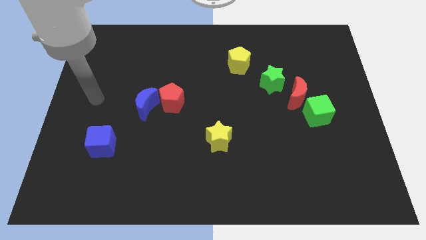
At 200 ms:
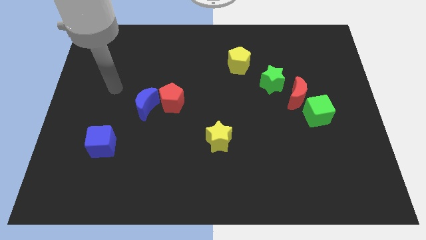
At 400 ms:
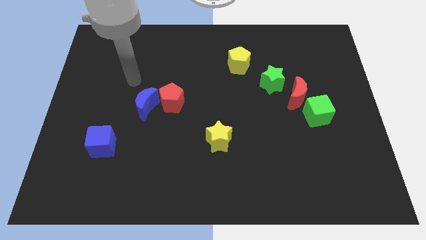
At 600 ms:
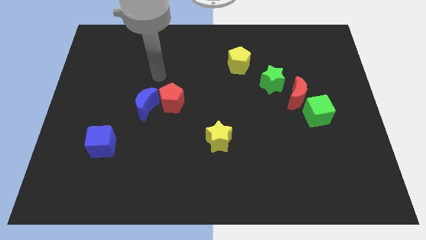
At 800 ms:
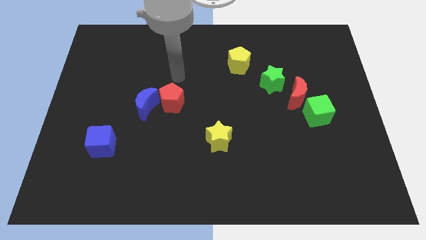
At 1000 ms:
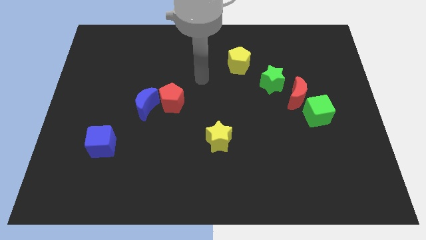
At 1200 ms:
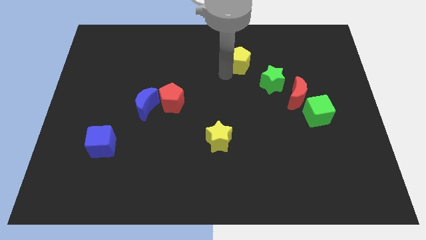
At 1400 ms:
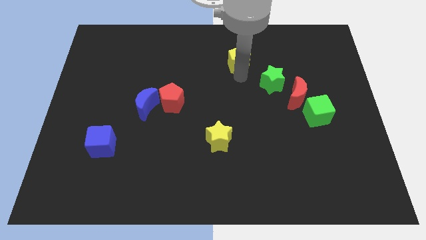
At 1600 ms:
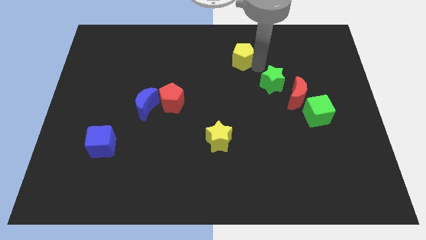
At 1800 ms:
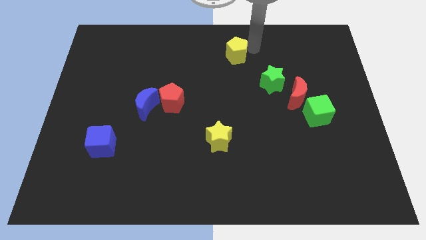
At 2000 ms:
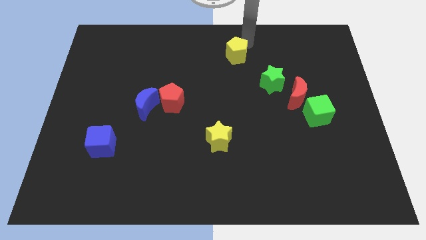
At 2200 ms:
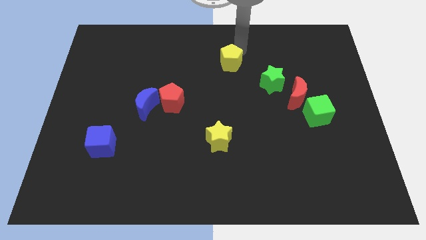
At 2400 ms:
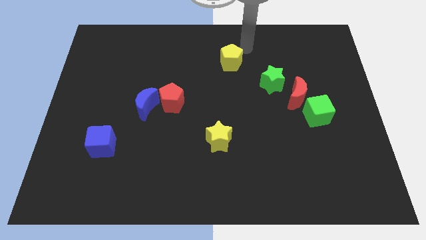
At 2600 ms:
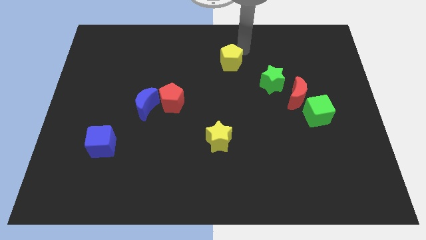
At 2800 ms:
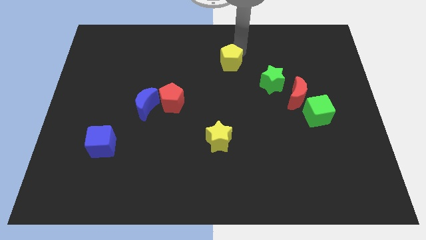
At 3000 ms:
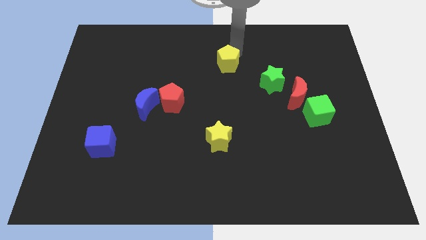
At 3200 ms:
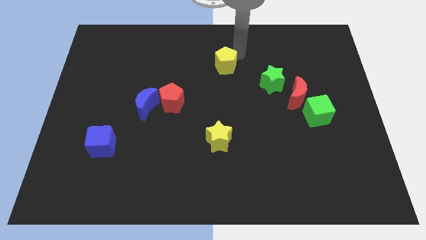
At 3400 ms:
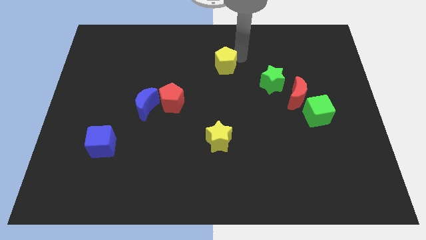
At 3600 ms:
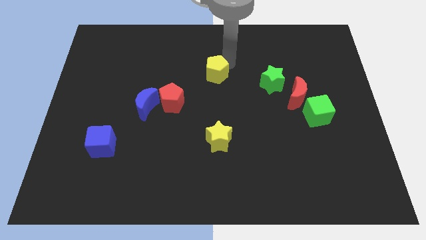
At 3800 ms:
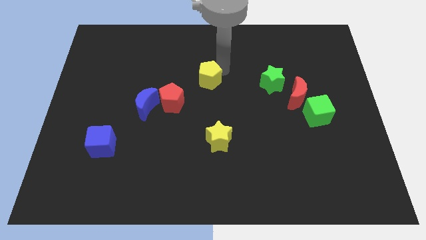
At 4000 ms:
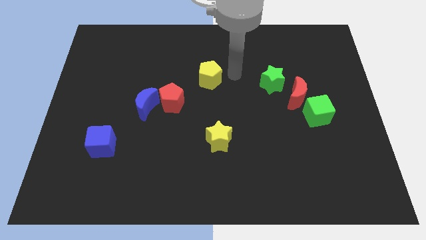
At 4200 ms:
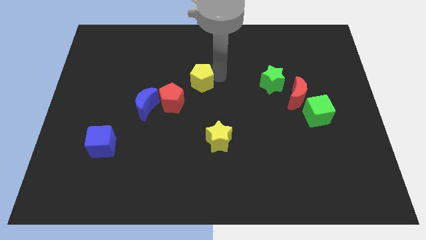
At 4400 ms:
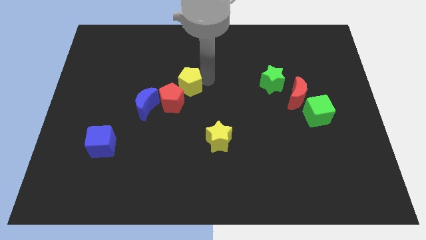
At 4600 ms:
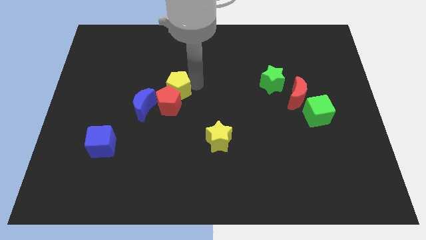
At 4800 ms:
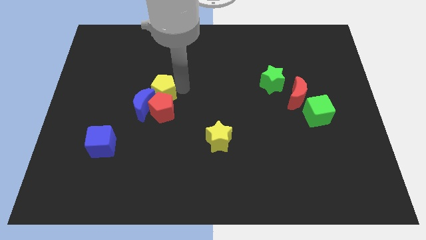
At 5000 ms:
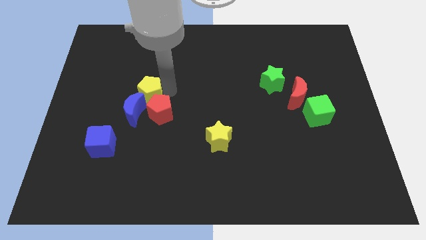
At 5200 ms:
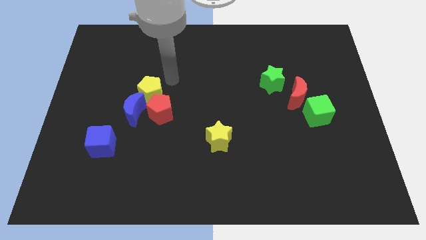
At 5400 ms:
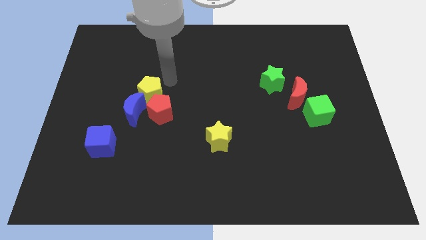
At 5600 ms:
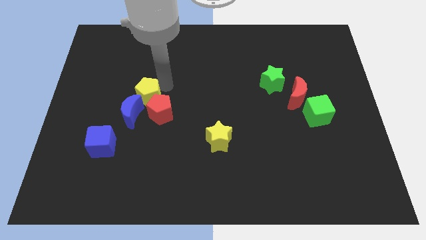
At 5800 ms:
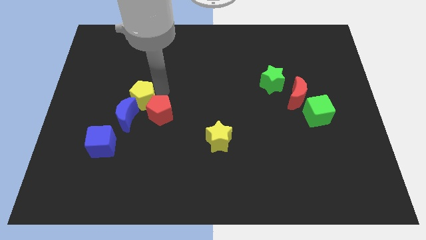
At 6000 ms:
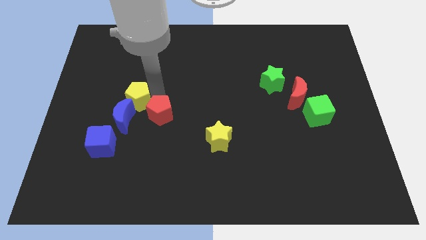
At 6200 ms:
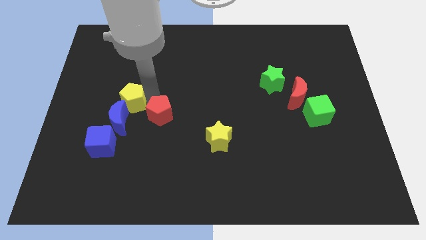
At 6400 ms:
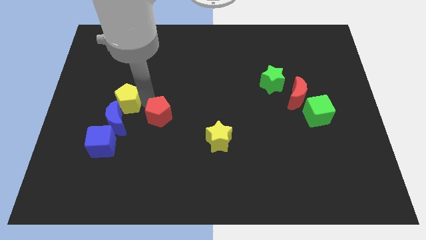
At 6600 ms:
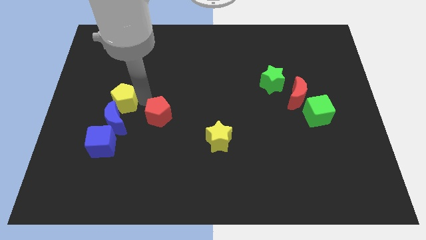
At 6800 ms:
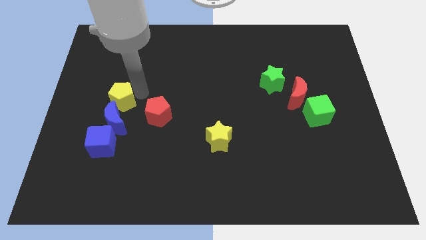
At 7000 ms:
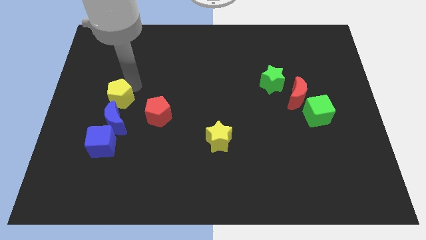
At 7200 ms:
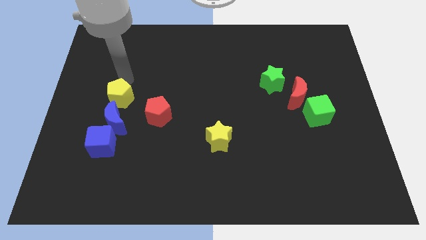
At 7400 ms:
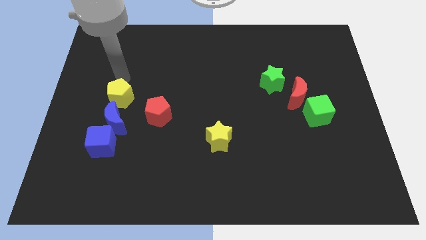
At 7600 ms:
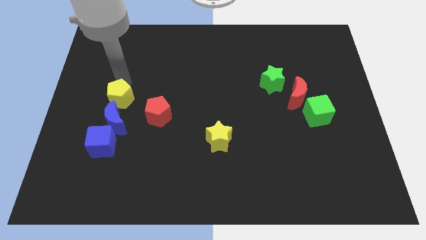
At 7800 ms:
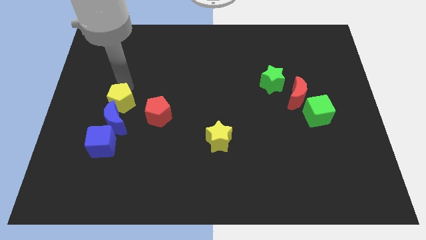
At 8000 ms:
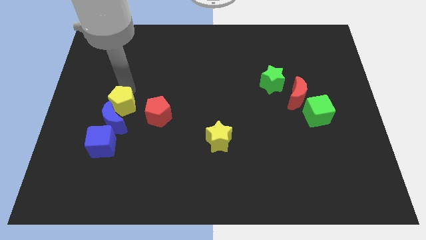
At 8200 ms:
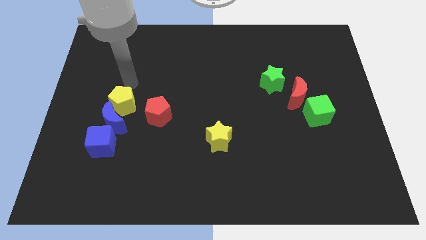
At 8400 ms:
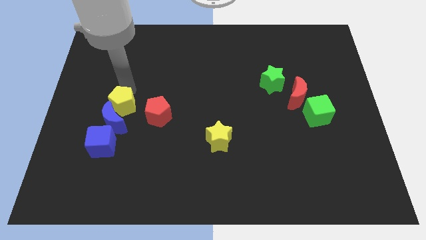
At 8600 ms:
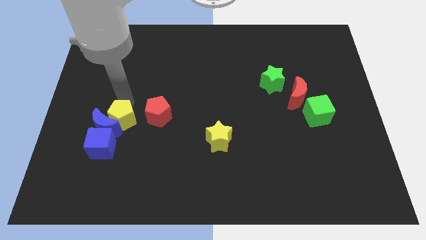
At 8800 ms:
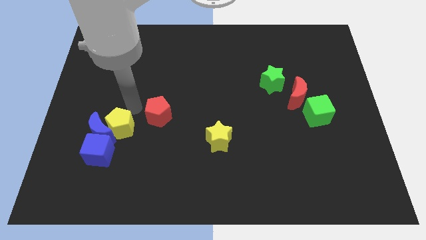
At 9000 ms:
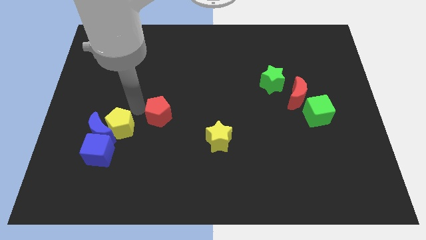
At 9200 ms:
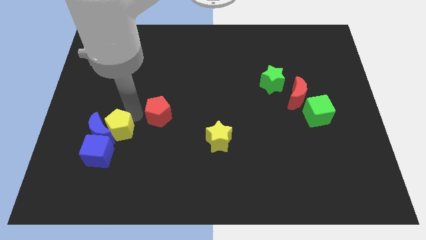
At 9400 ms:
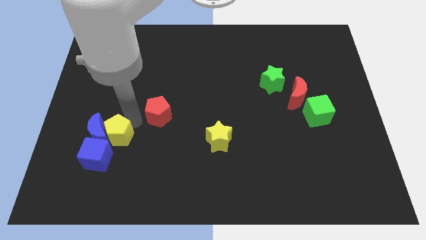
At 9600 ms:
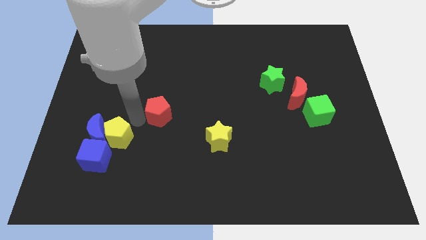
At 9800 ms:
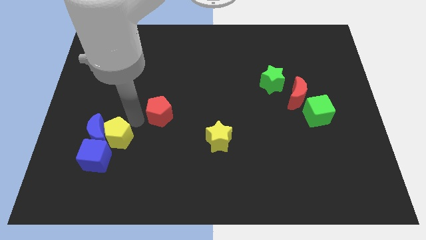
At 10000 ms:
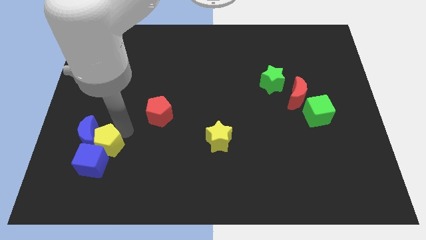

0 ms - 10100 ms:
move the yellow pentagon towards the blue cube

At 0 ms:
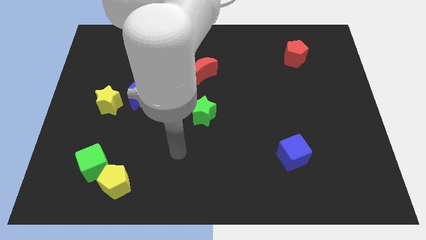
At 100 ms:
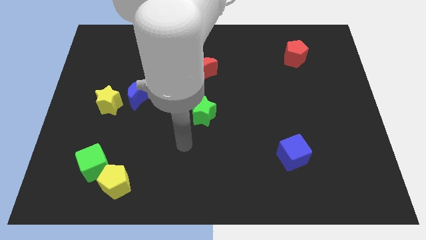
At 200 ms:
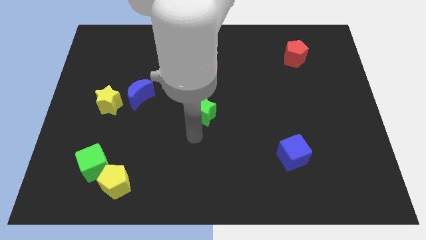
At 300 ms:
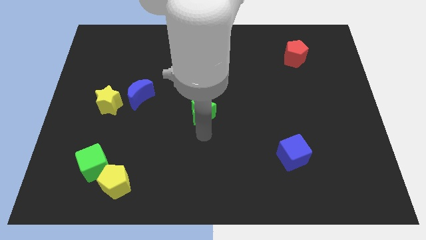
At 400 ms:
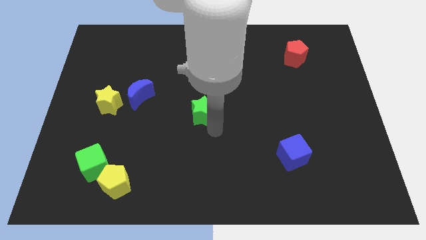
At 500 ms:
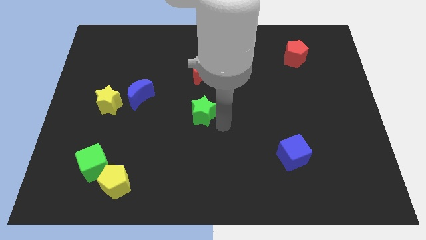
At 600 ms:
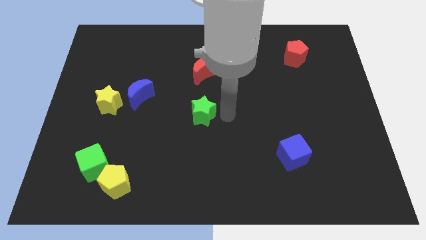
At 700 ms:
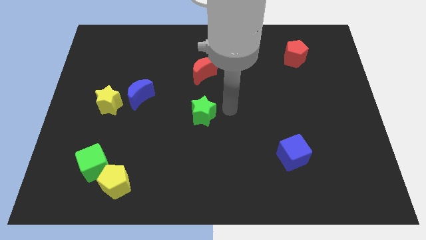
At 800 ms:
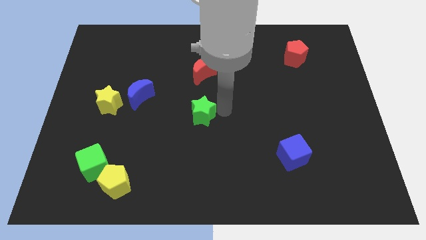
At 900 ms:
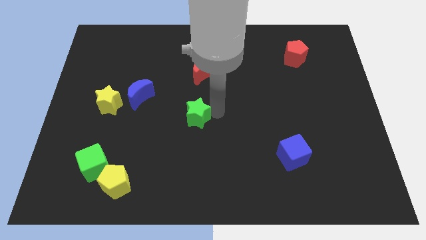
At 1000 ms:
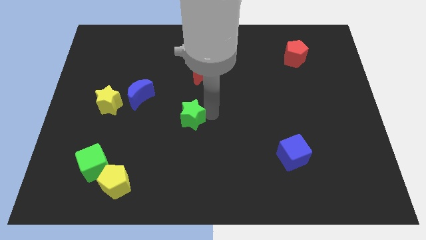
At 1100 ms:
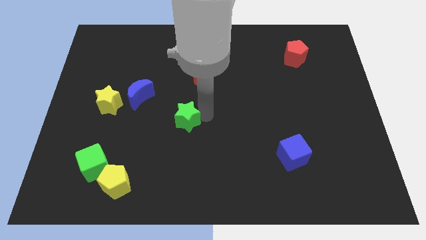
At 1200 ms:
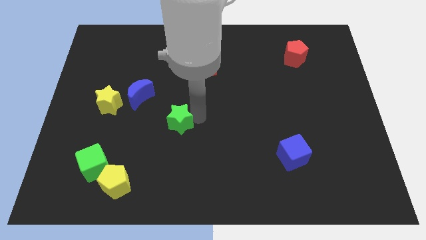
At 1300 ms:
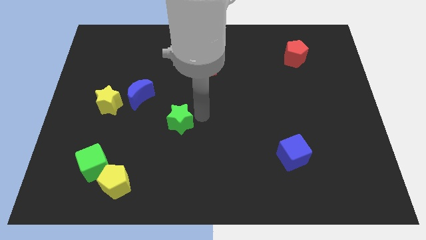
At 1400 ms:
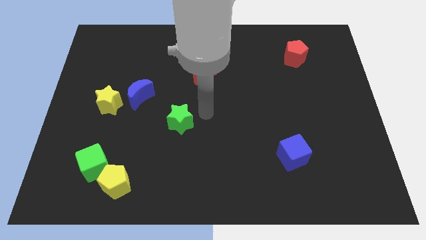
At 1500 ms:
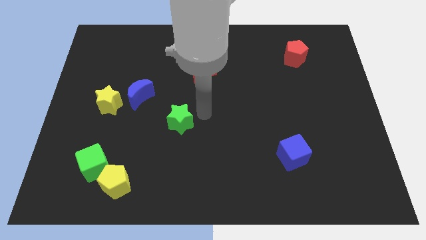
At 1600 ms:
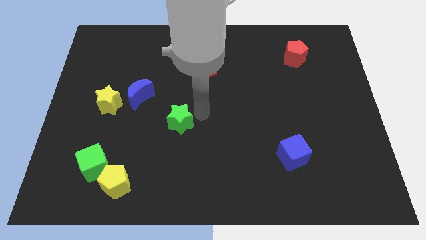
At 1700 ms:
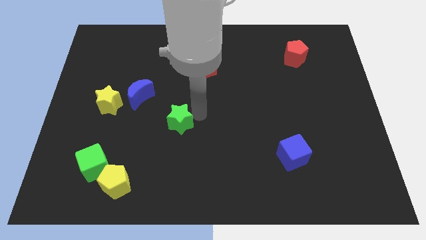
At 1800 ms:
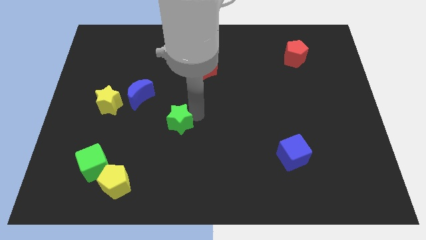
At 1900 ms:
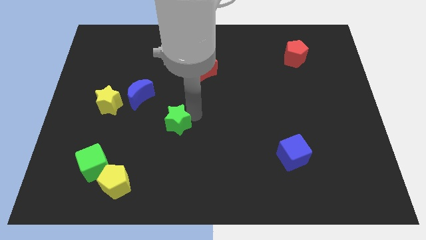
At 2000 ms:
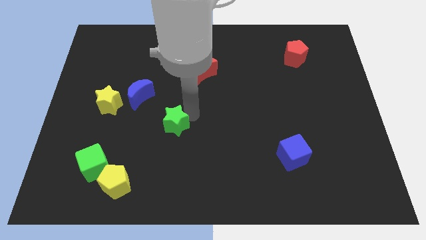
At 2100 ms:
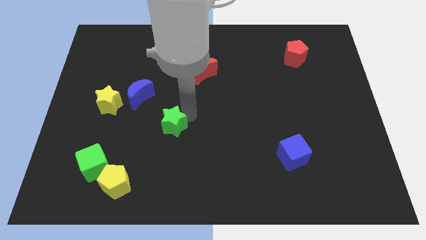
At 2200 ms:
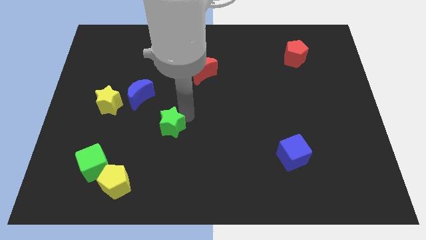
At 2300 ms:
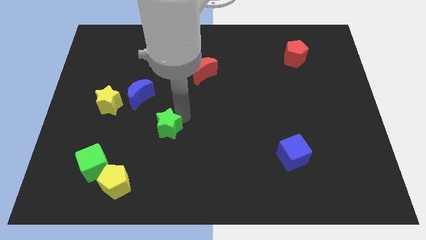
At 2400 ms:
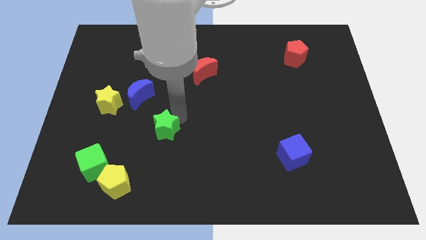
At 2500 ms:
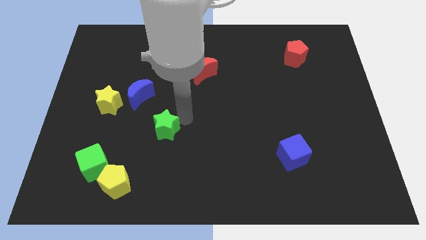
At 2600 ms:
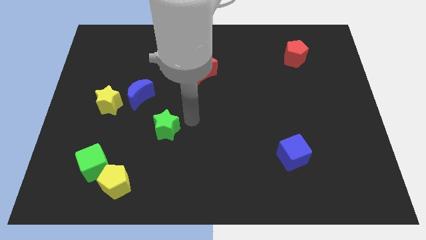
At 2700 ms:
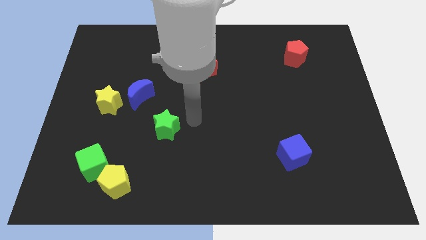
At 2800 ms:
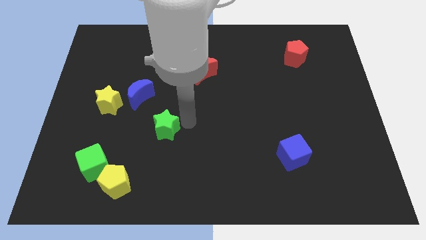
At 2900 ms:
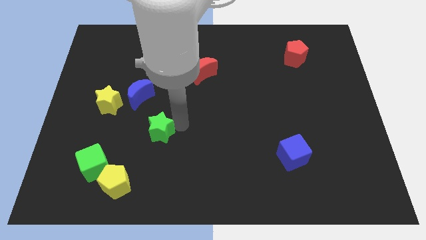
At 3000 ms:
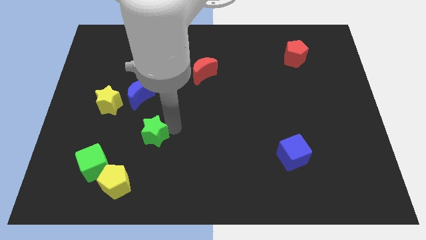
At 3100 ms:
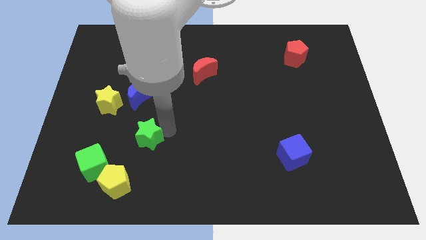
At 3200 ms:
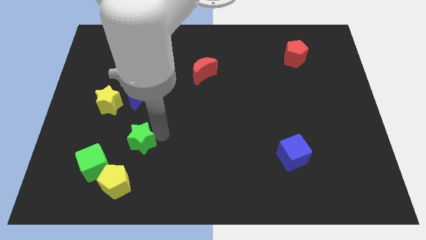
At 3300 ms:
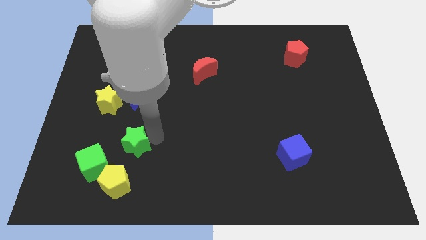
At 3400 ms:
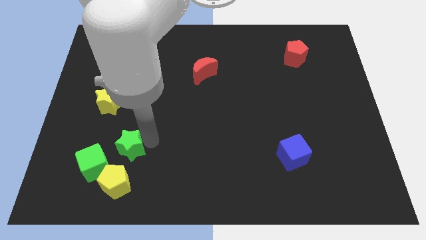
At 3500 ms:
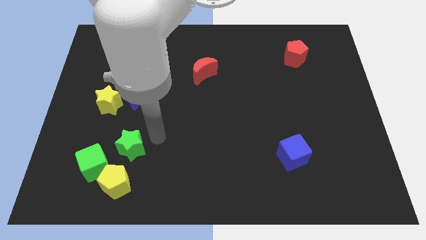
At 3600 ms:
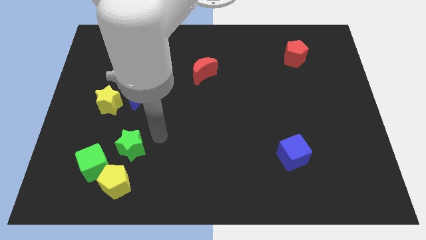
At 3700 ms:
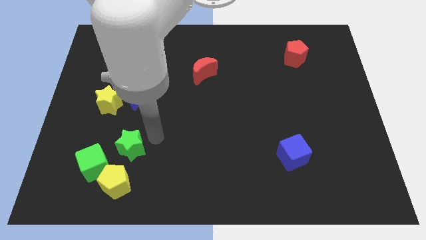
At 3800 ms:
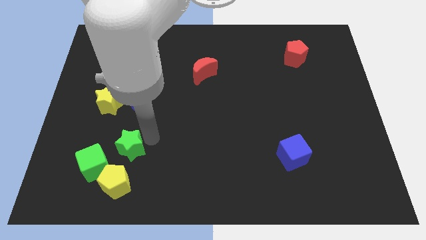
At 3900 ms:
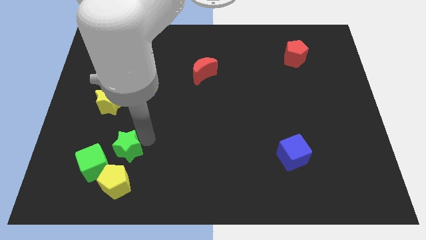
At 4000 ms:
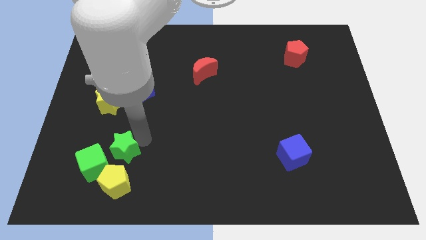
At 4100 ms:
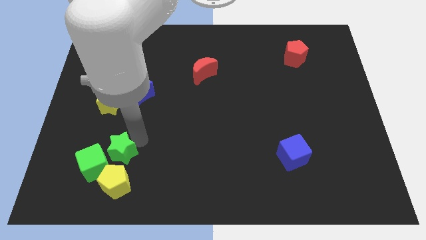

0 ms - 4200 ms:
put the green star next to the green cube
